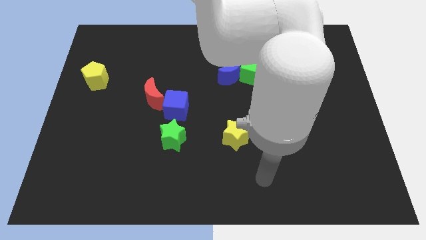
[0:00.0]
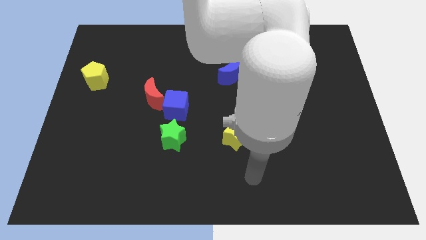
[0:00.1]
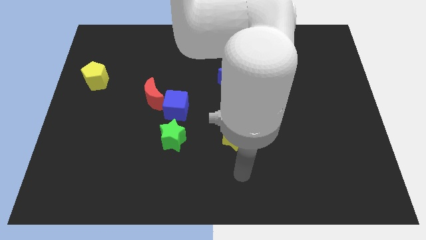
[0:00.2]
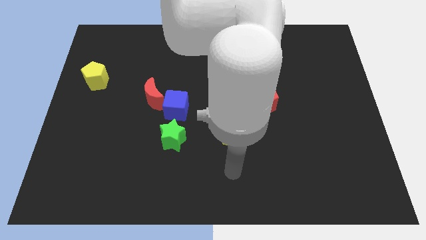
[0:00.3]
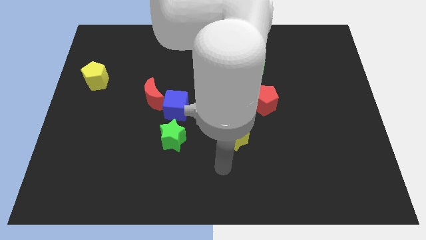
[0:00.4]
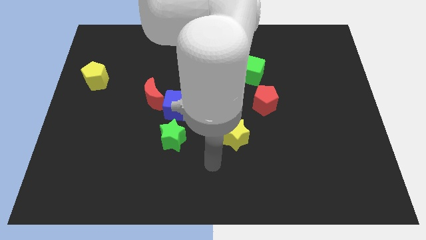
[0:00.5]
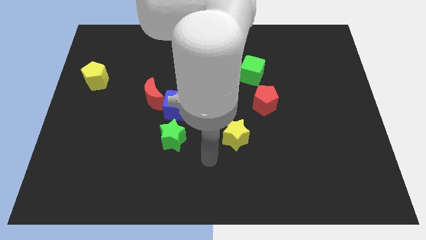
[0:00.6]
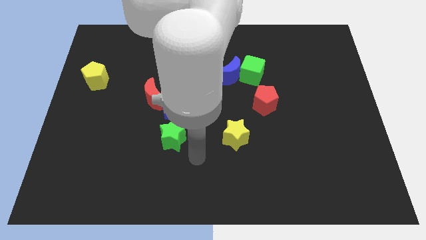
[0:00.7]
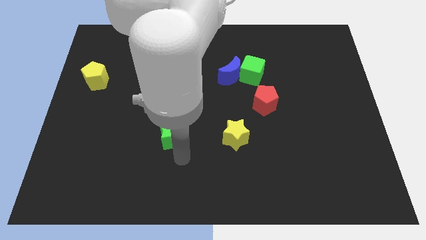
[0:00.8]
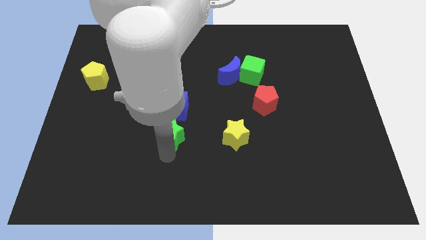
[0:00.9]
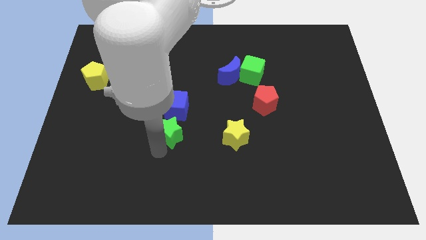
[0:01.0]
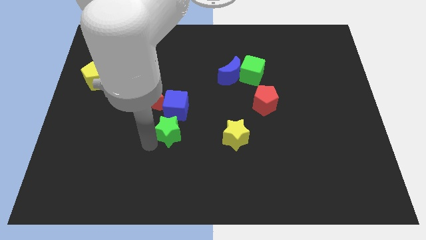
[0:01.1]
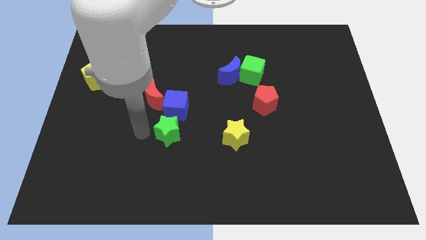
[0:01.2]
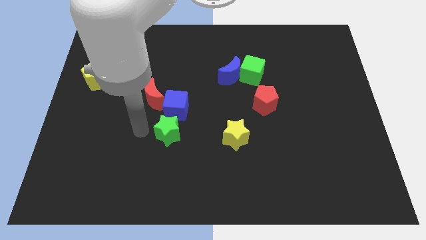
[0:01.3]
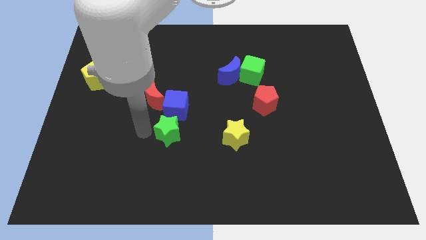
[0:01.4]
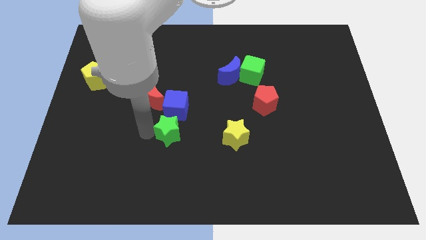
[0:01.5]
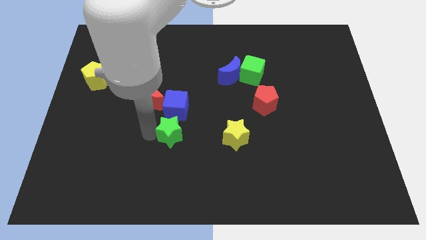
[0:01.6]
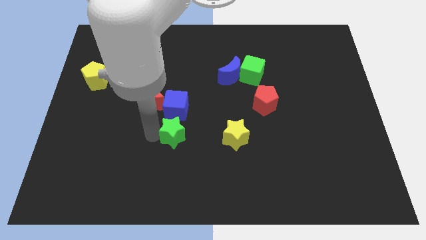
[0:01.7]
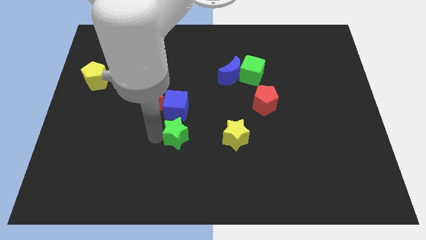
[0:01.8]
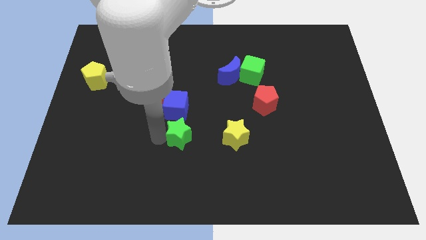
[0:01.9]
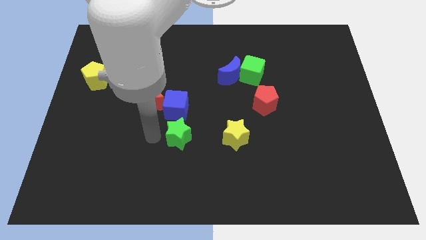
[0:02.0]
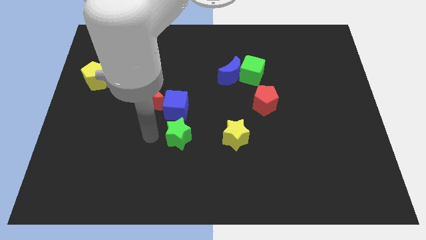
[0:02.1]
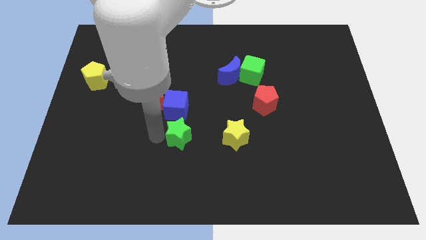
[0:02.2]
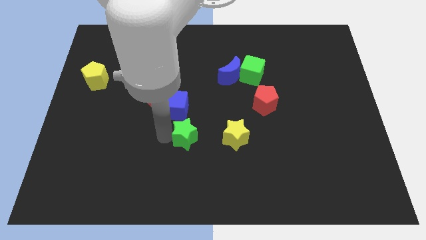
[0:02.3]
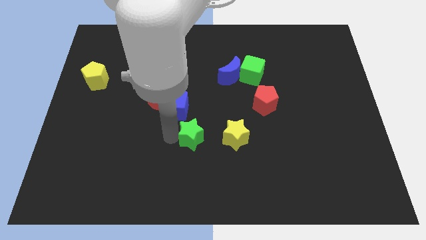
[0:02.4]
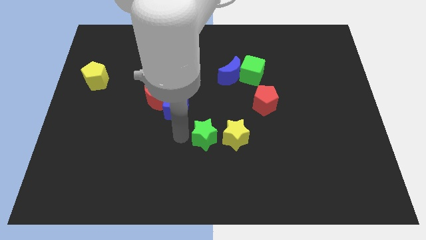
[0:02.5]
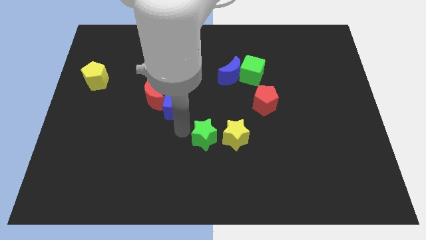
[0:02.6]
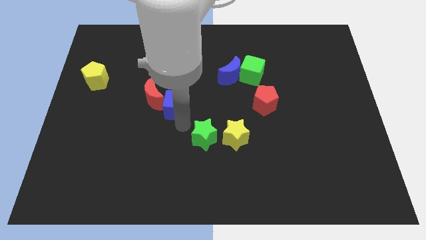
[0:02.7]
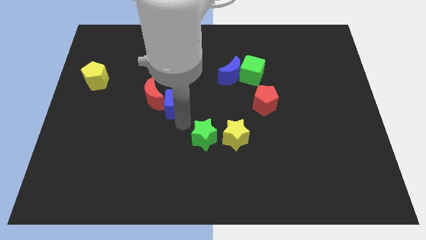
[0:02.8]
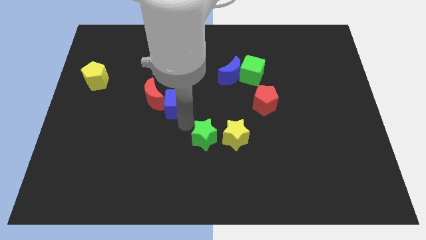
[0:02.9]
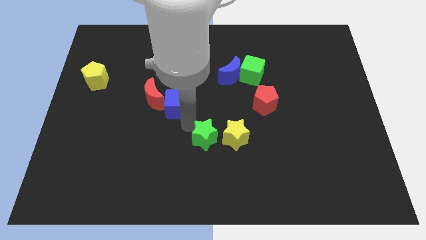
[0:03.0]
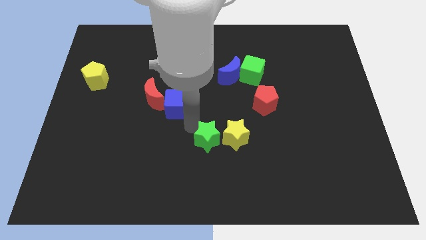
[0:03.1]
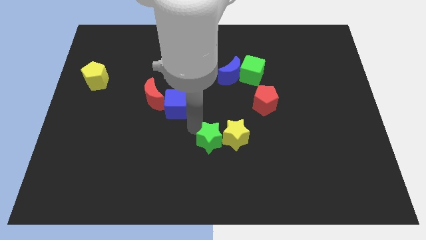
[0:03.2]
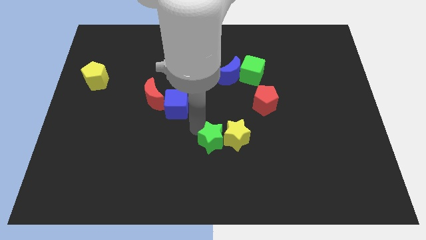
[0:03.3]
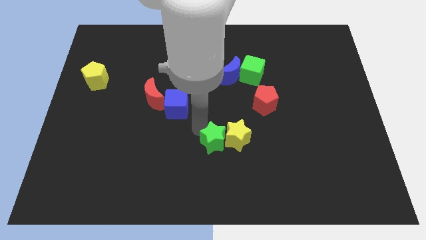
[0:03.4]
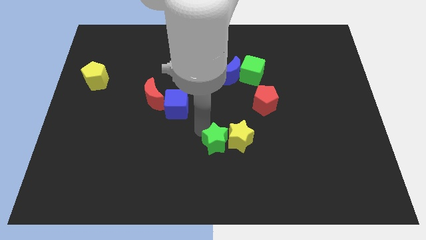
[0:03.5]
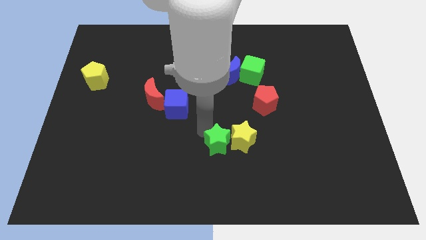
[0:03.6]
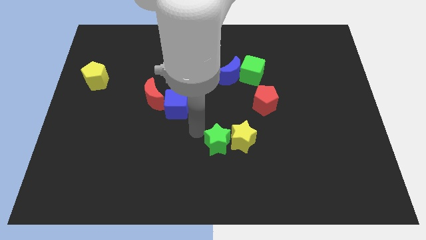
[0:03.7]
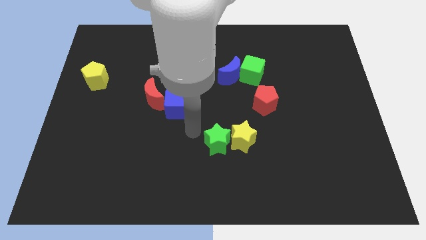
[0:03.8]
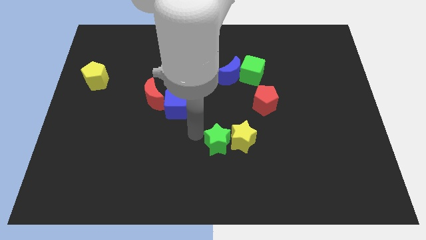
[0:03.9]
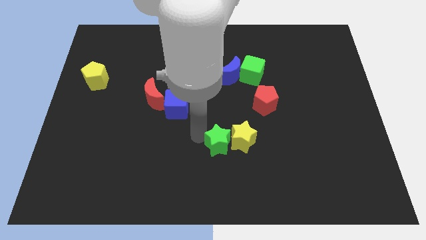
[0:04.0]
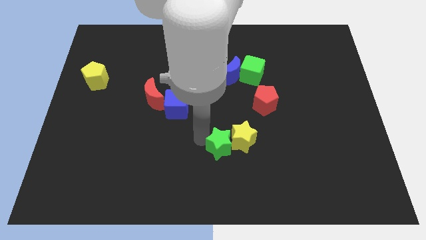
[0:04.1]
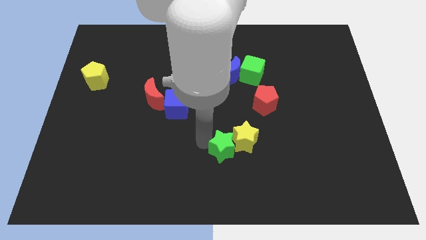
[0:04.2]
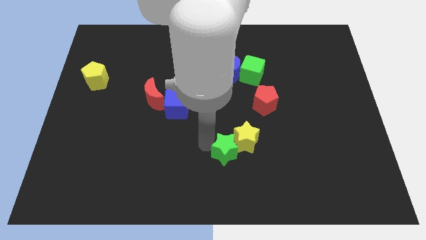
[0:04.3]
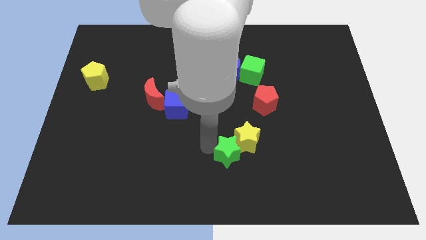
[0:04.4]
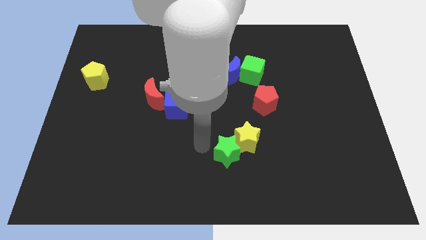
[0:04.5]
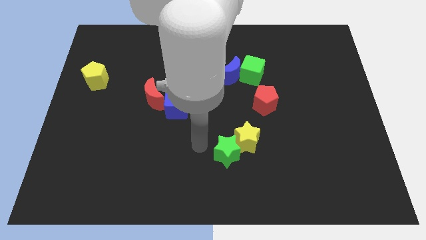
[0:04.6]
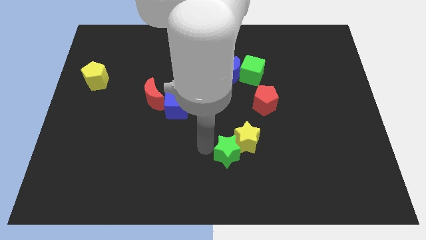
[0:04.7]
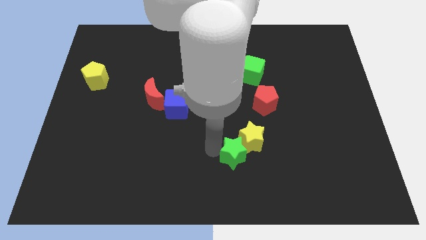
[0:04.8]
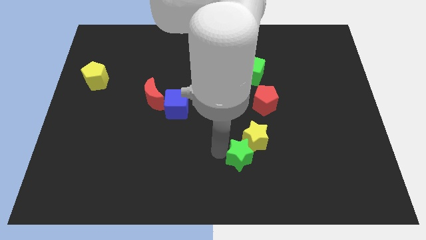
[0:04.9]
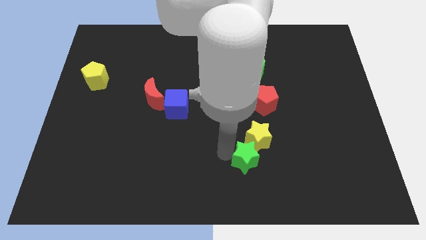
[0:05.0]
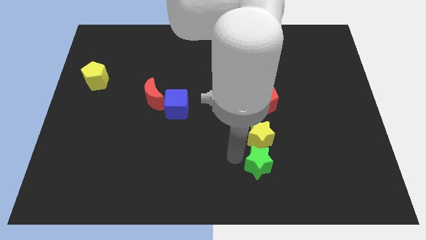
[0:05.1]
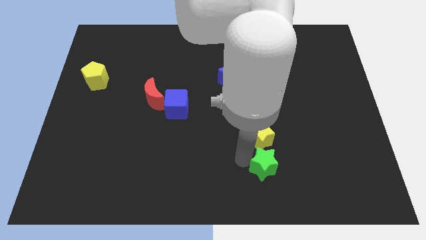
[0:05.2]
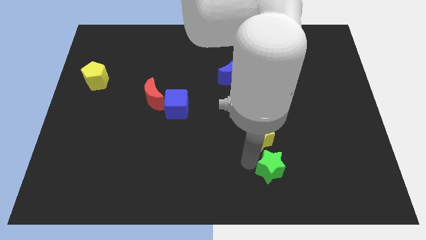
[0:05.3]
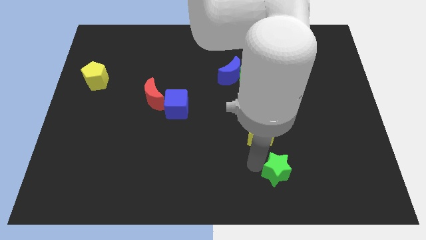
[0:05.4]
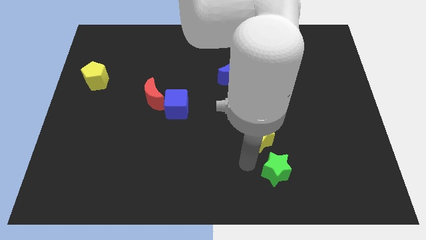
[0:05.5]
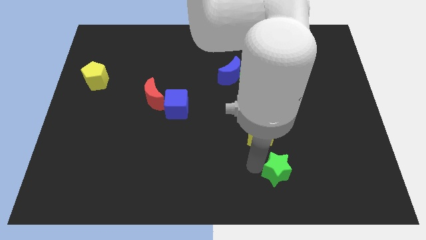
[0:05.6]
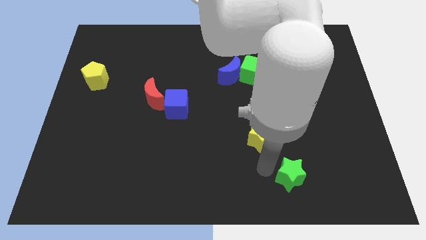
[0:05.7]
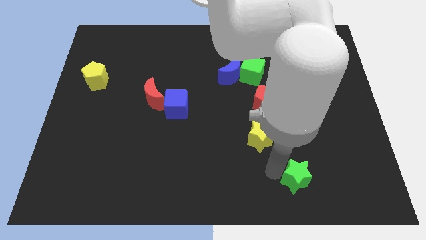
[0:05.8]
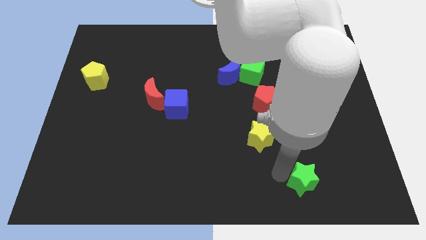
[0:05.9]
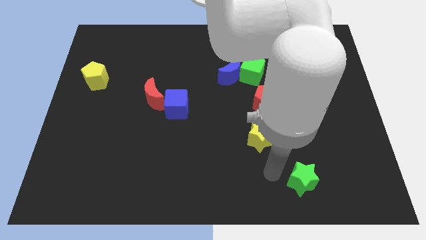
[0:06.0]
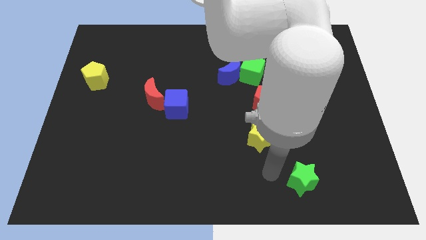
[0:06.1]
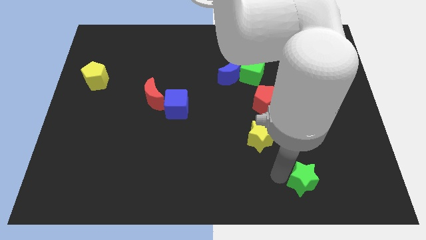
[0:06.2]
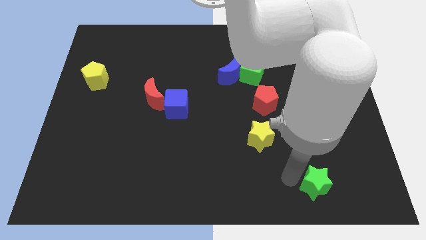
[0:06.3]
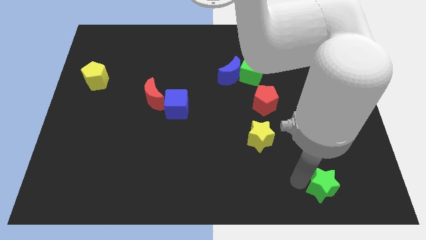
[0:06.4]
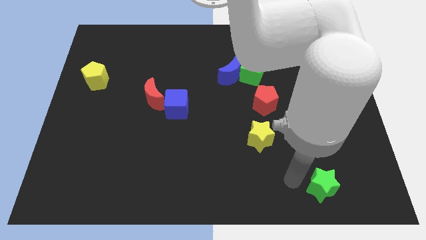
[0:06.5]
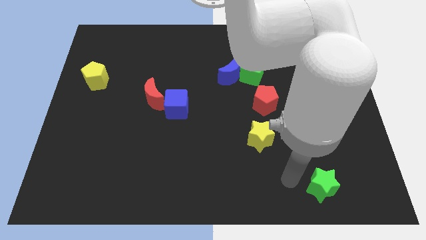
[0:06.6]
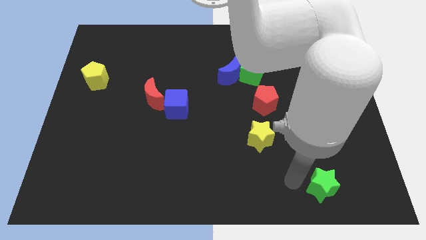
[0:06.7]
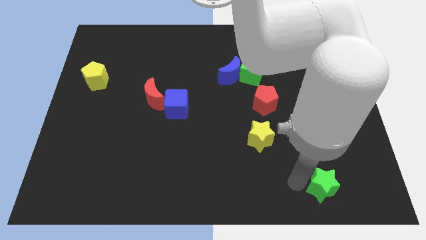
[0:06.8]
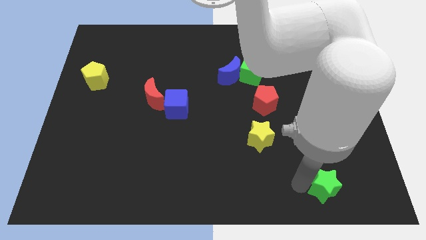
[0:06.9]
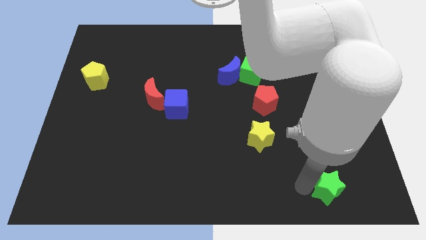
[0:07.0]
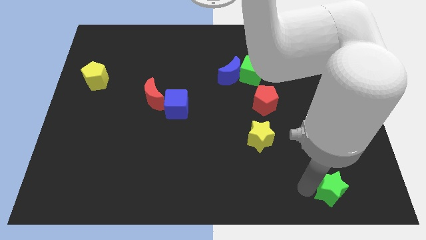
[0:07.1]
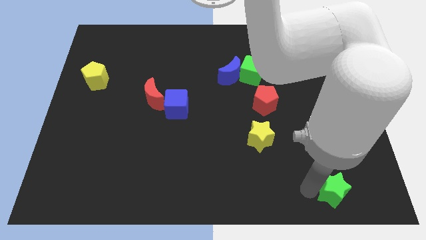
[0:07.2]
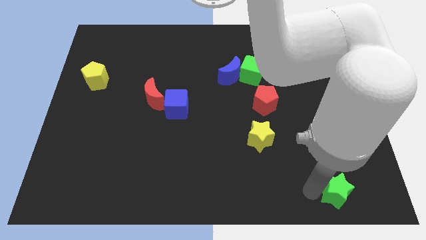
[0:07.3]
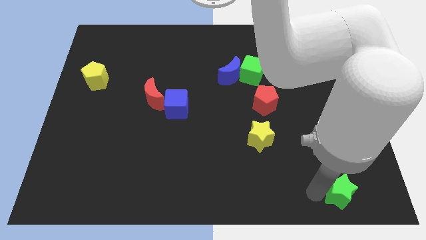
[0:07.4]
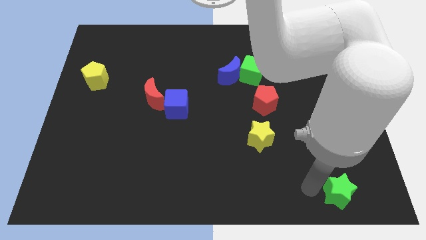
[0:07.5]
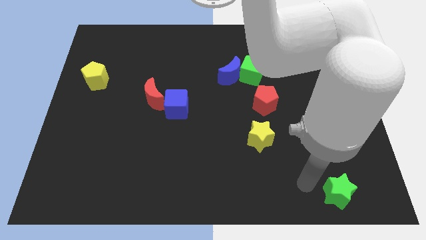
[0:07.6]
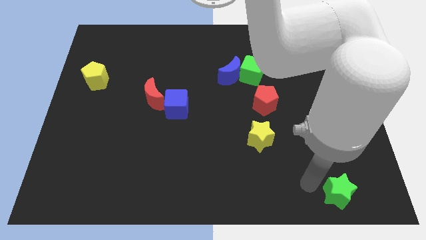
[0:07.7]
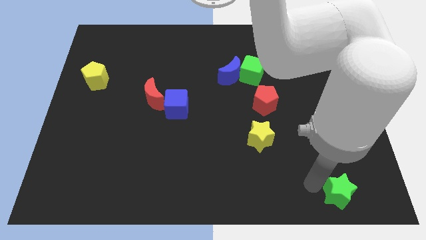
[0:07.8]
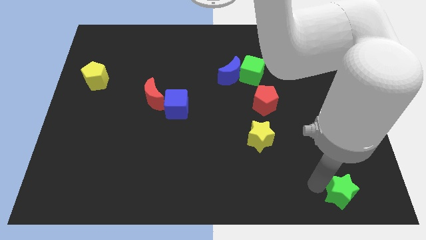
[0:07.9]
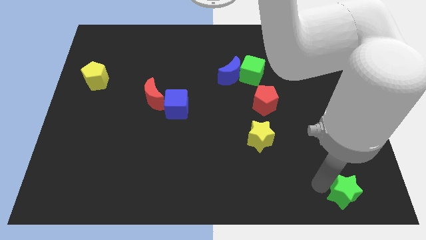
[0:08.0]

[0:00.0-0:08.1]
slide the green star to the bottom right corner
